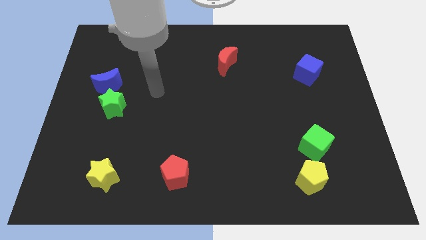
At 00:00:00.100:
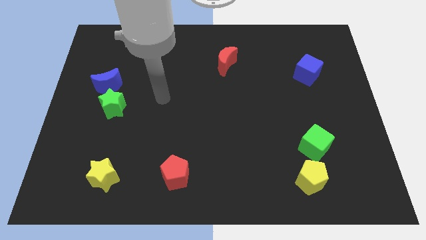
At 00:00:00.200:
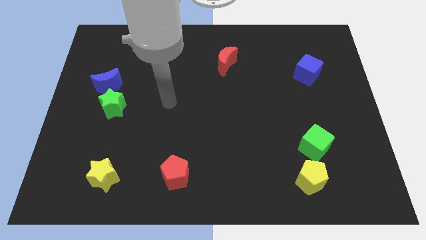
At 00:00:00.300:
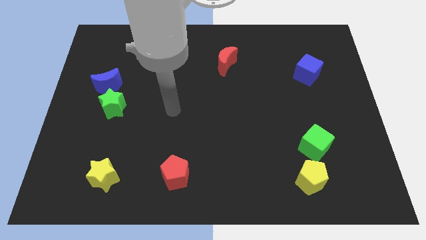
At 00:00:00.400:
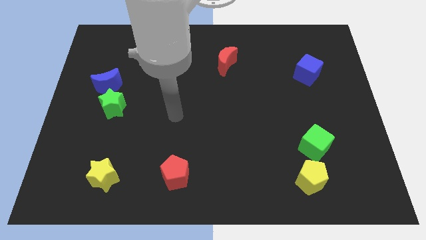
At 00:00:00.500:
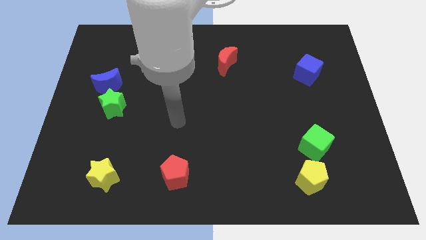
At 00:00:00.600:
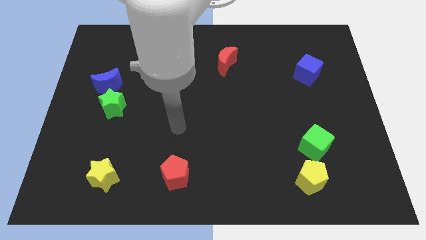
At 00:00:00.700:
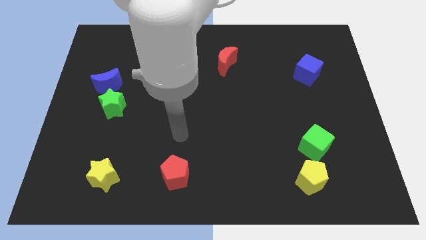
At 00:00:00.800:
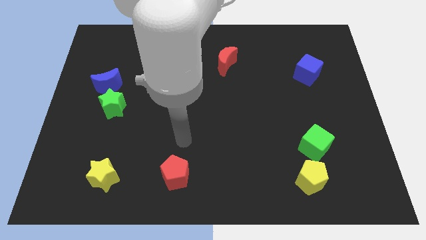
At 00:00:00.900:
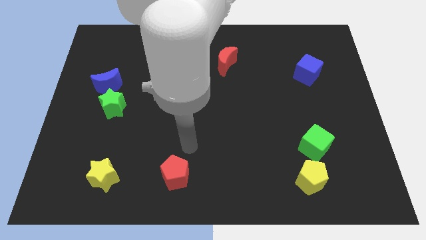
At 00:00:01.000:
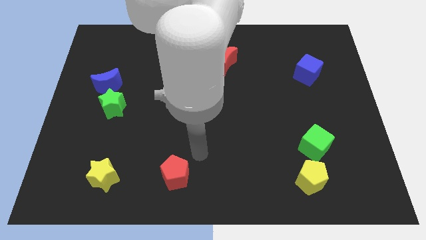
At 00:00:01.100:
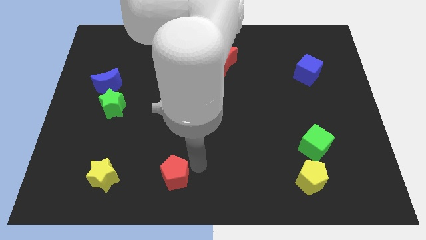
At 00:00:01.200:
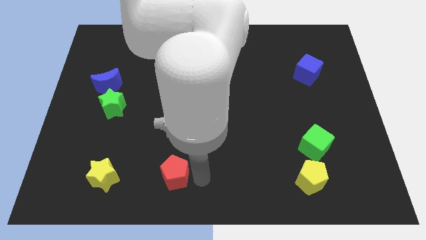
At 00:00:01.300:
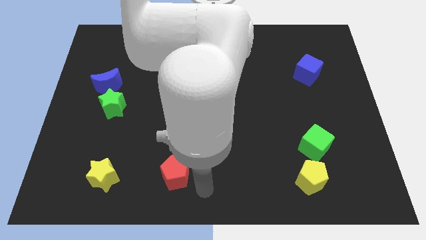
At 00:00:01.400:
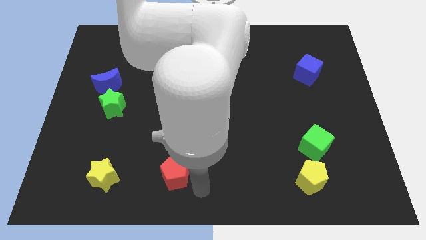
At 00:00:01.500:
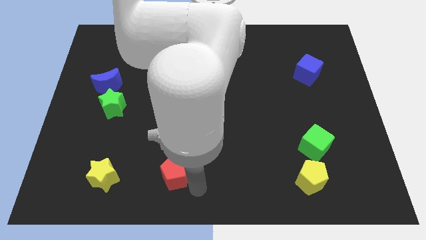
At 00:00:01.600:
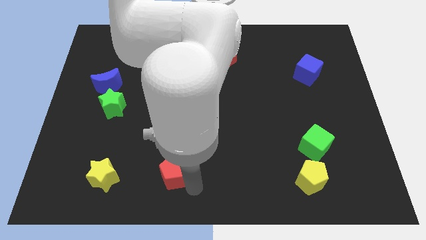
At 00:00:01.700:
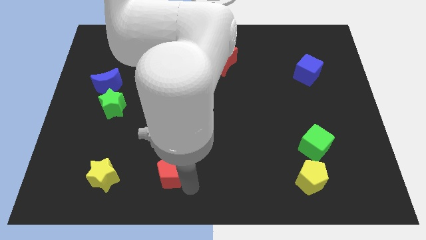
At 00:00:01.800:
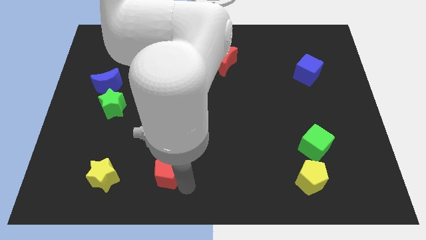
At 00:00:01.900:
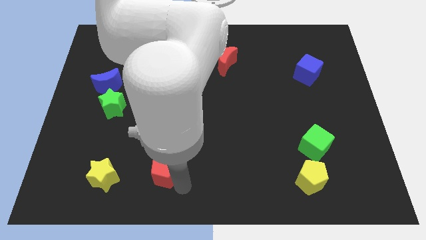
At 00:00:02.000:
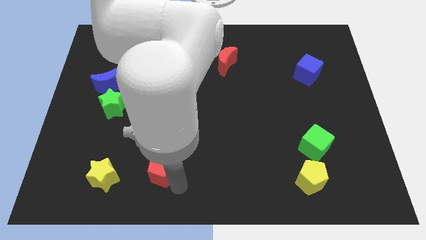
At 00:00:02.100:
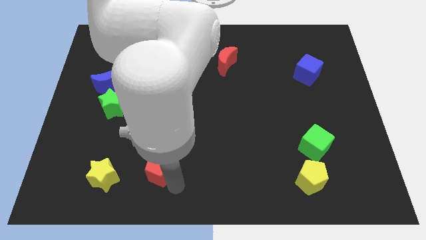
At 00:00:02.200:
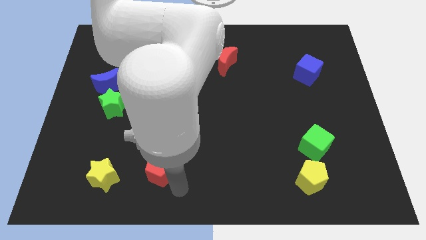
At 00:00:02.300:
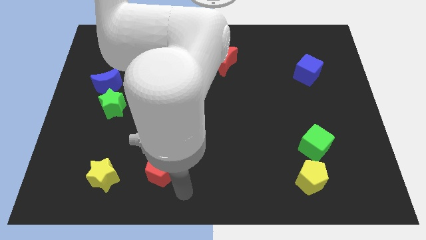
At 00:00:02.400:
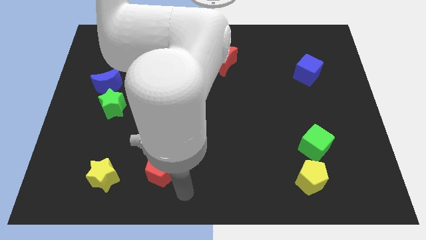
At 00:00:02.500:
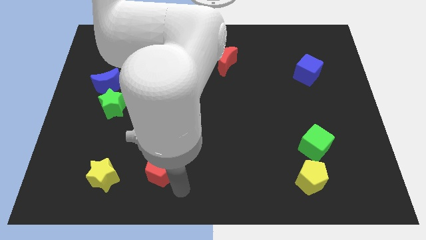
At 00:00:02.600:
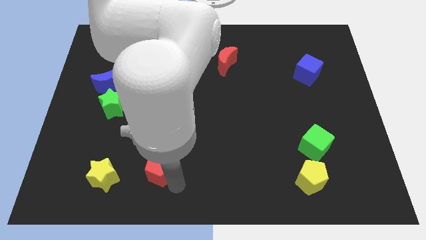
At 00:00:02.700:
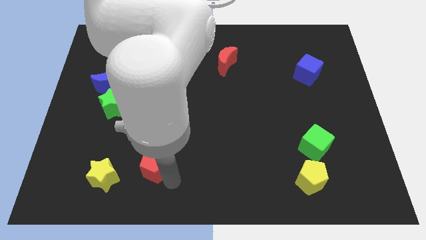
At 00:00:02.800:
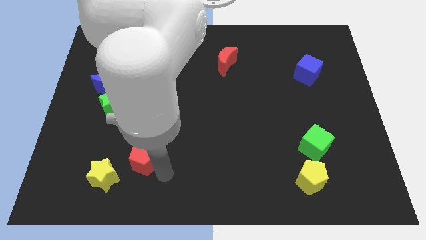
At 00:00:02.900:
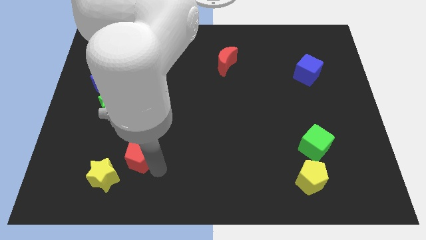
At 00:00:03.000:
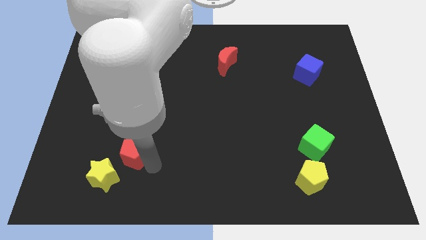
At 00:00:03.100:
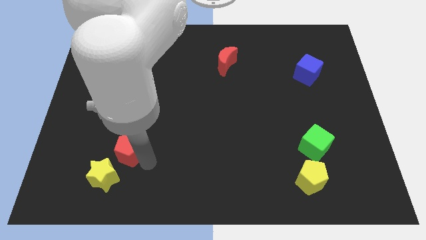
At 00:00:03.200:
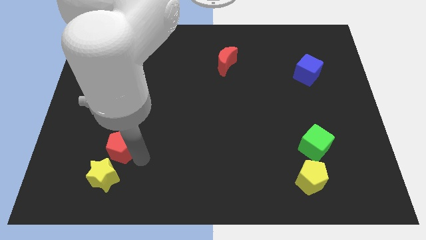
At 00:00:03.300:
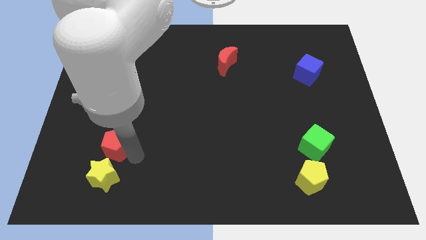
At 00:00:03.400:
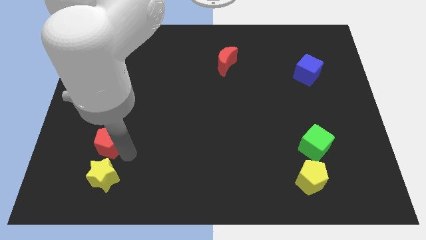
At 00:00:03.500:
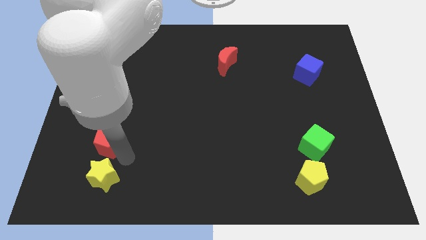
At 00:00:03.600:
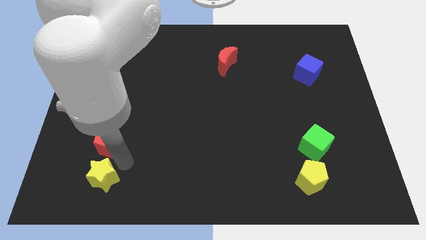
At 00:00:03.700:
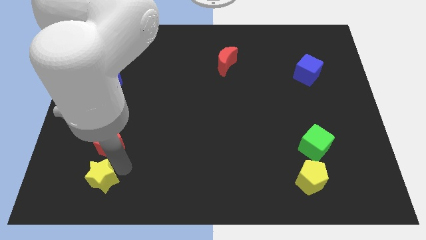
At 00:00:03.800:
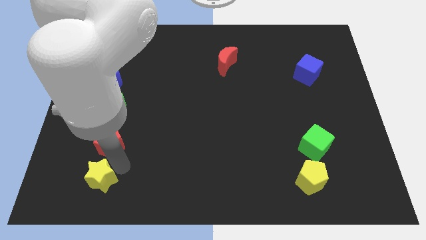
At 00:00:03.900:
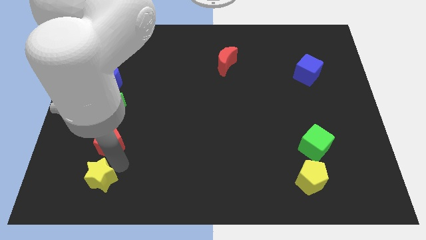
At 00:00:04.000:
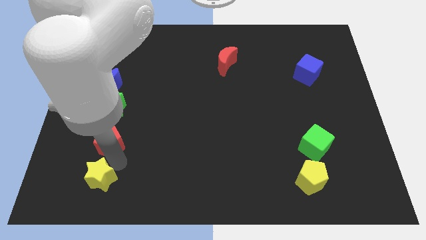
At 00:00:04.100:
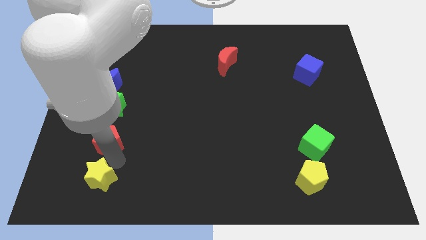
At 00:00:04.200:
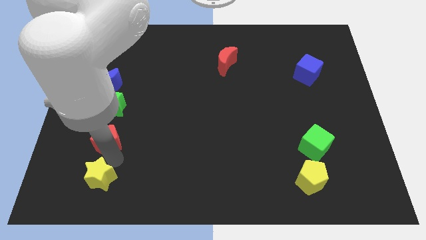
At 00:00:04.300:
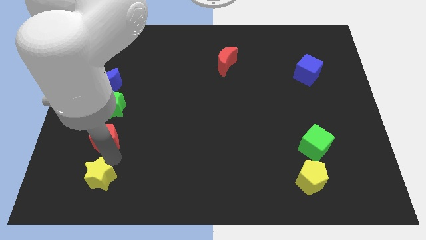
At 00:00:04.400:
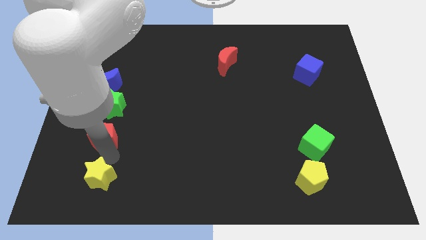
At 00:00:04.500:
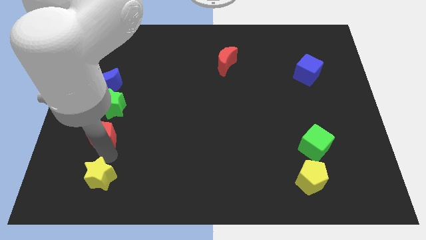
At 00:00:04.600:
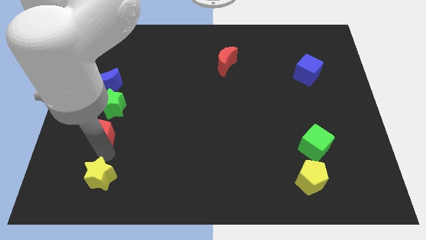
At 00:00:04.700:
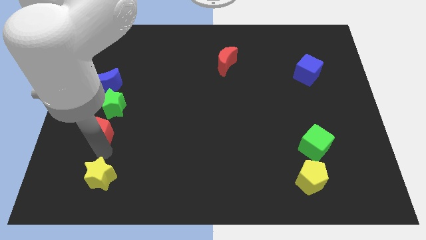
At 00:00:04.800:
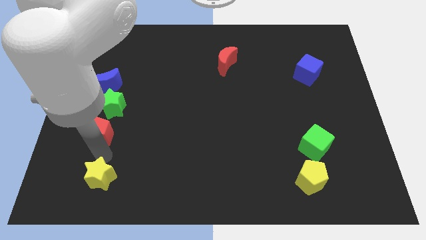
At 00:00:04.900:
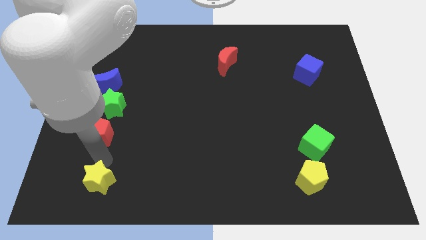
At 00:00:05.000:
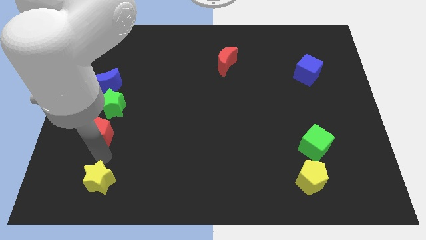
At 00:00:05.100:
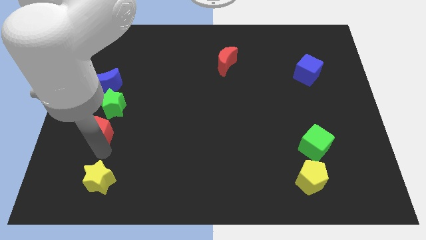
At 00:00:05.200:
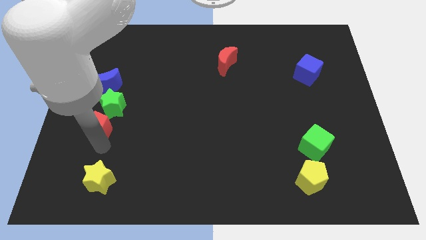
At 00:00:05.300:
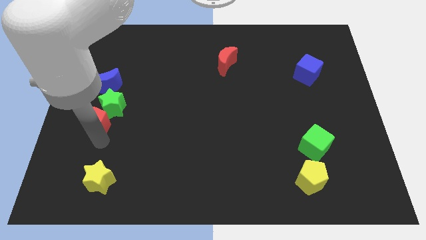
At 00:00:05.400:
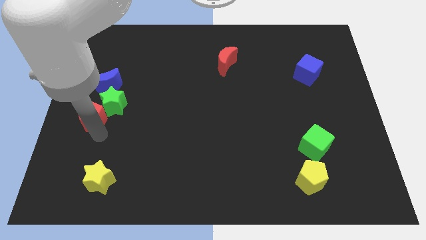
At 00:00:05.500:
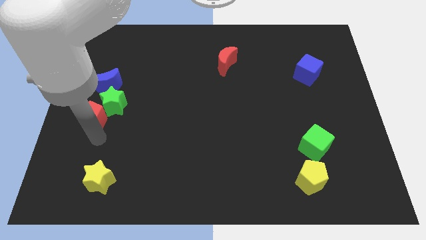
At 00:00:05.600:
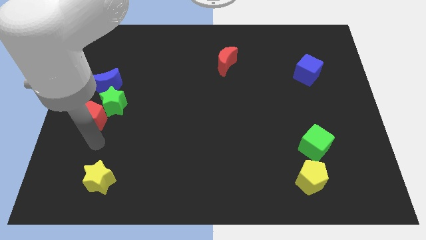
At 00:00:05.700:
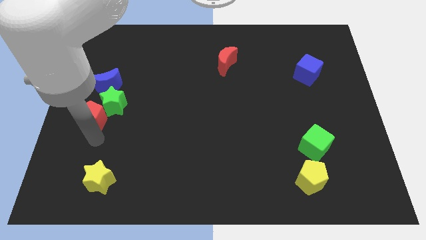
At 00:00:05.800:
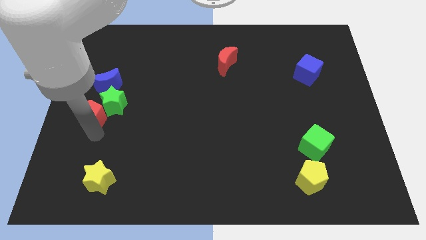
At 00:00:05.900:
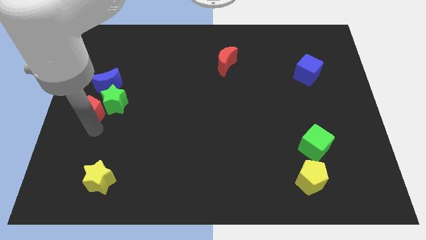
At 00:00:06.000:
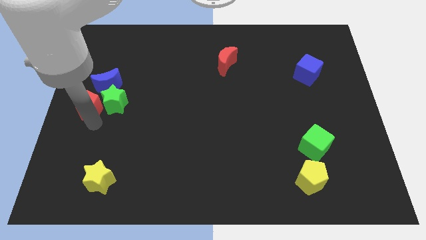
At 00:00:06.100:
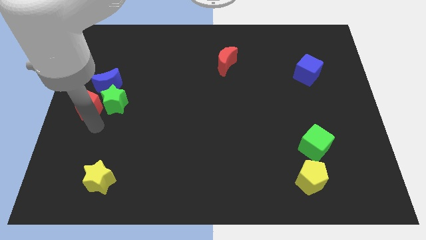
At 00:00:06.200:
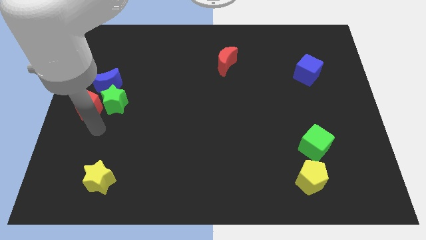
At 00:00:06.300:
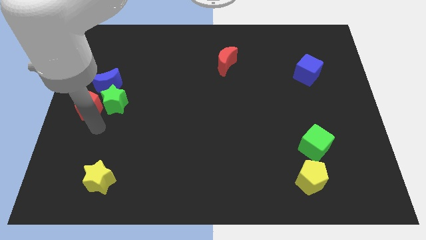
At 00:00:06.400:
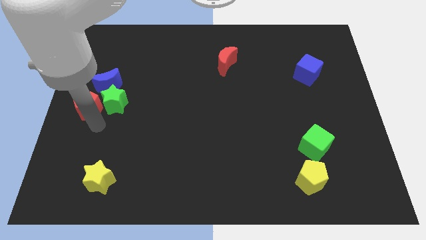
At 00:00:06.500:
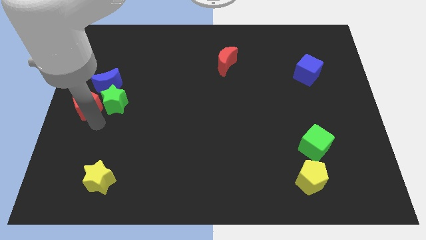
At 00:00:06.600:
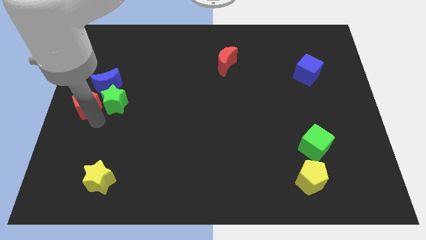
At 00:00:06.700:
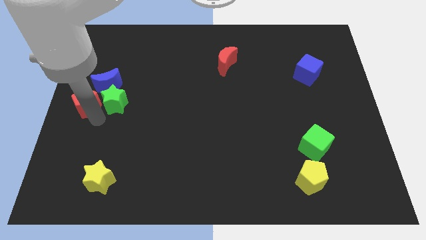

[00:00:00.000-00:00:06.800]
push the red pentagon diagonally up and to the left of the green star
